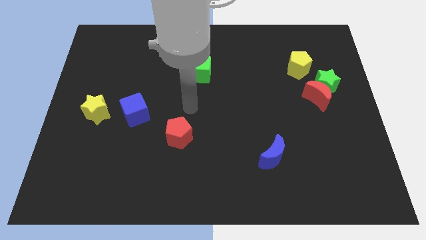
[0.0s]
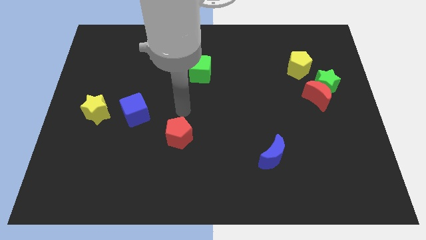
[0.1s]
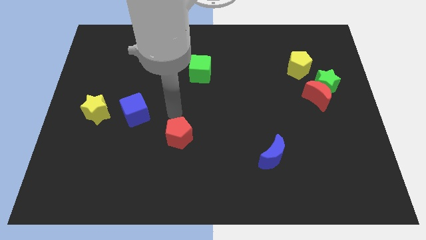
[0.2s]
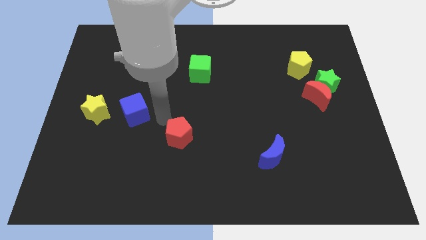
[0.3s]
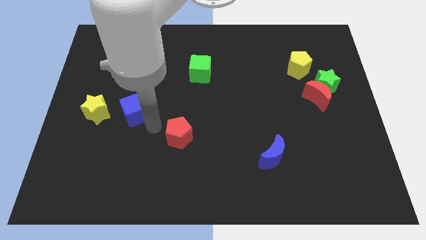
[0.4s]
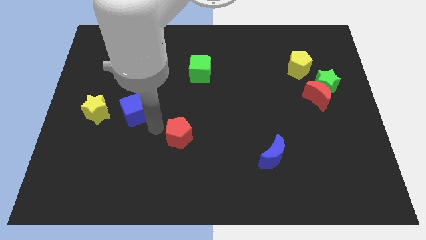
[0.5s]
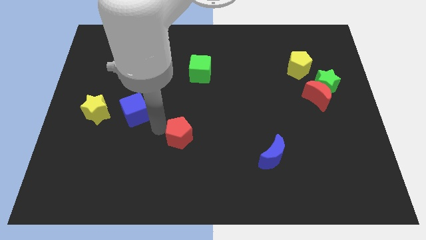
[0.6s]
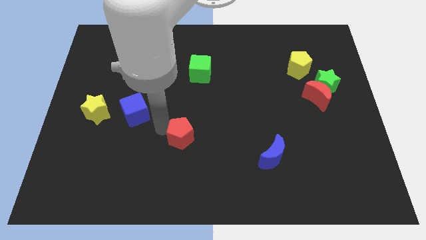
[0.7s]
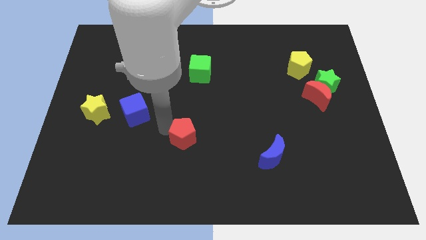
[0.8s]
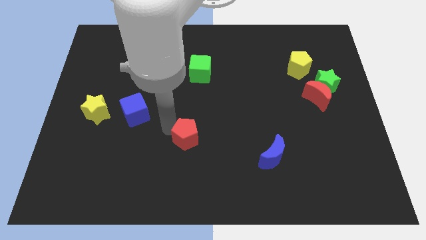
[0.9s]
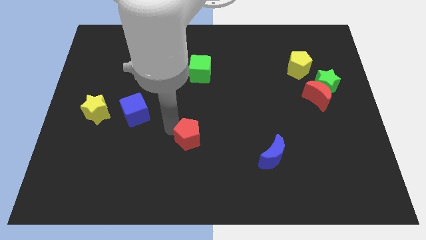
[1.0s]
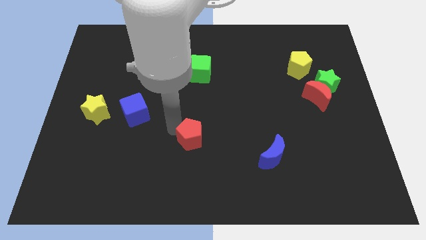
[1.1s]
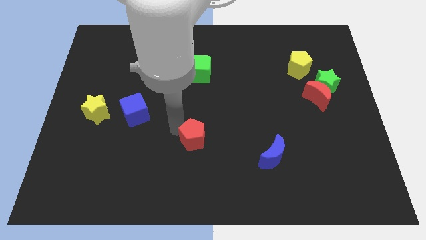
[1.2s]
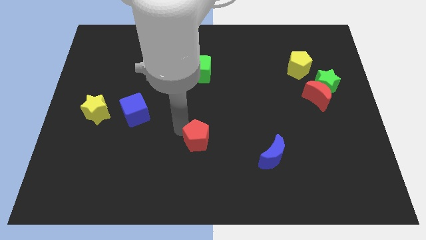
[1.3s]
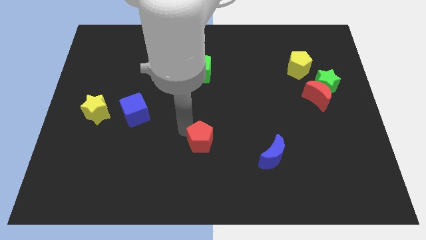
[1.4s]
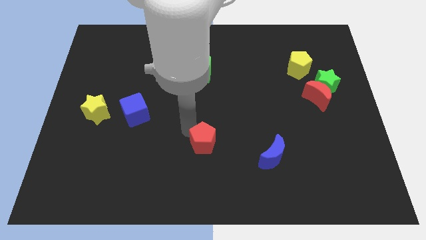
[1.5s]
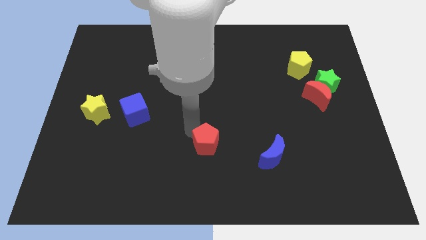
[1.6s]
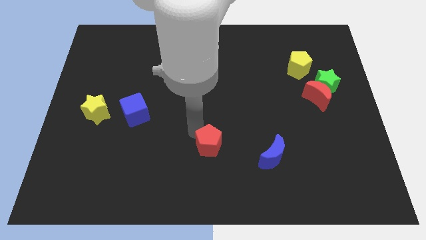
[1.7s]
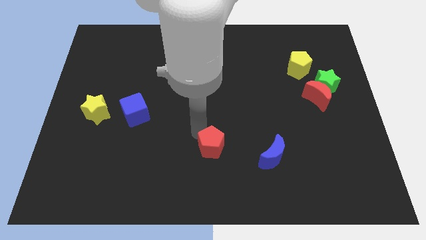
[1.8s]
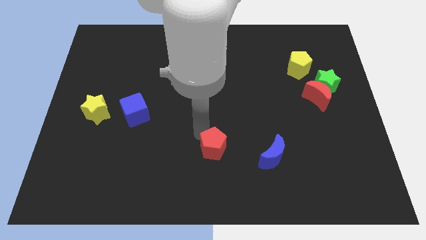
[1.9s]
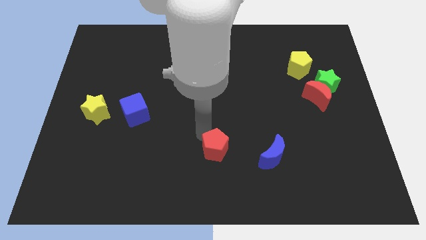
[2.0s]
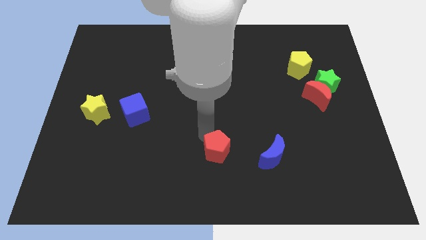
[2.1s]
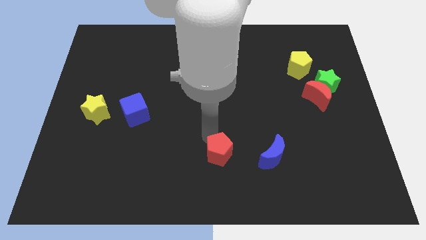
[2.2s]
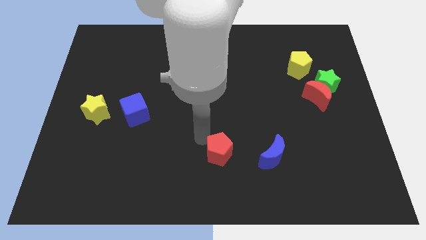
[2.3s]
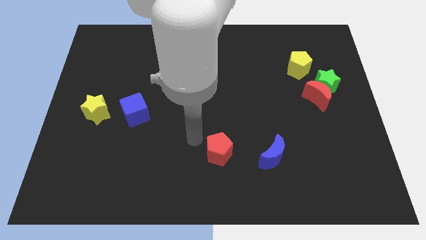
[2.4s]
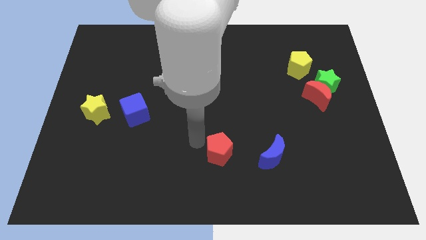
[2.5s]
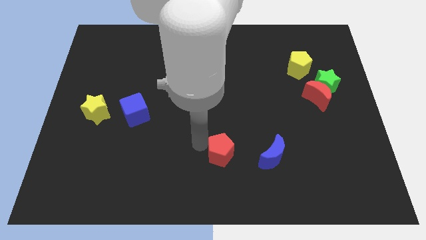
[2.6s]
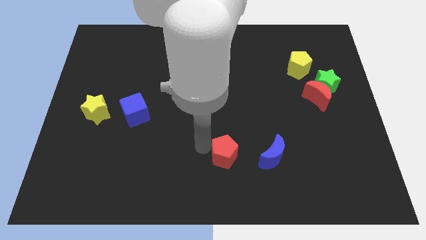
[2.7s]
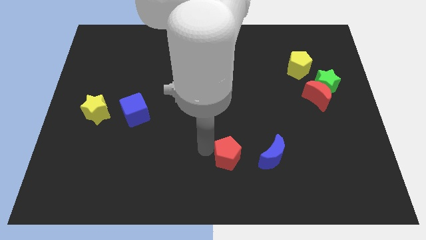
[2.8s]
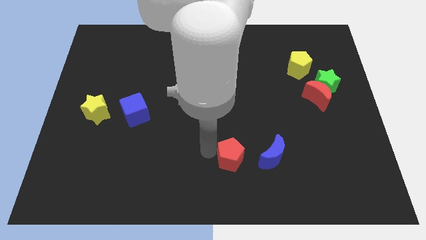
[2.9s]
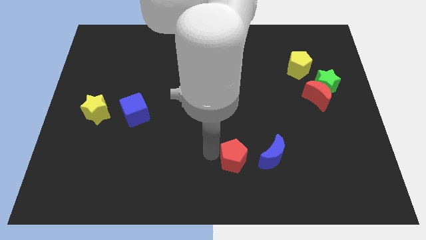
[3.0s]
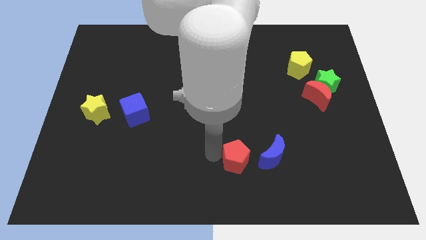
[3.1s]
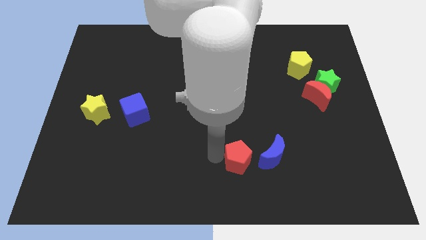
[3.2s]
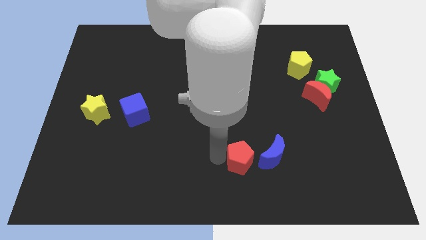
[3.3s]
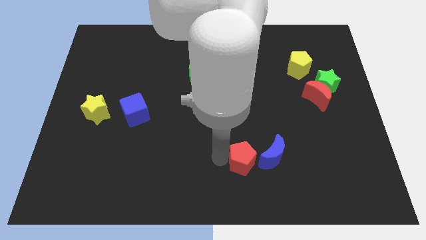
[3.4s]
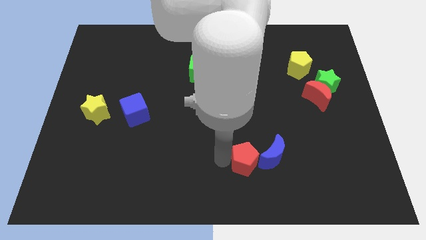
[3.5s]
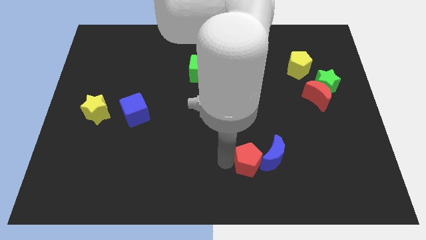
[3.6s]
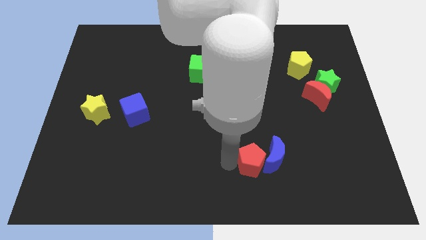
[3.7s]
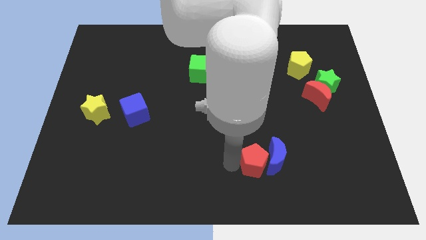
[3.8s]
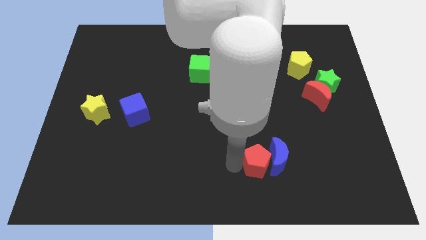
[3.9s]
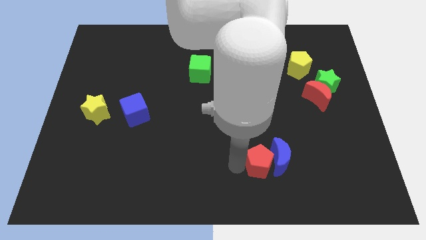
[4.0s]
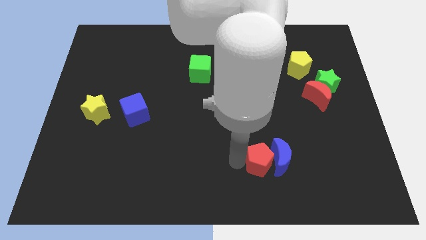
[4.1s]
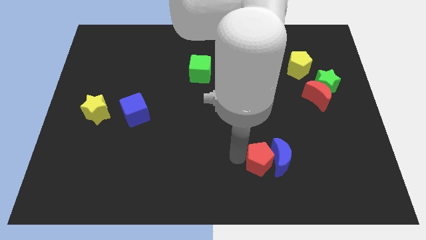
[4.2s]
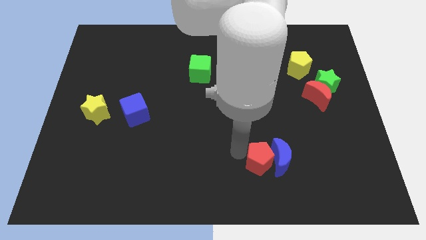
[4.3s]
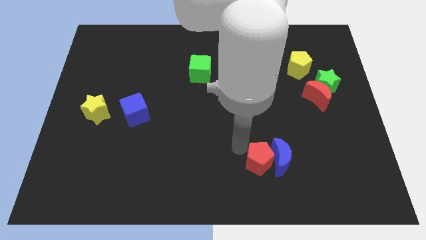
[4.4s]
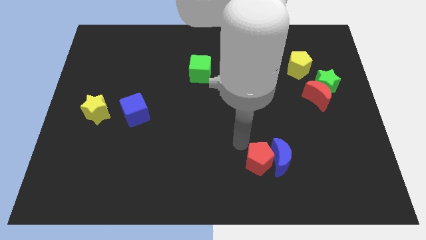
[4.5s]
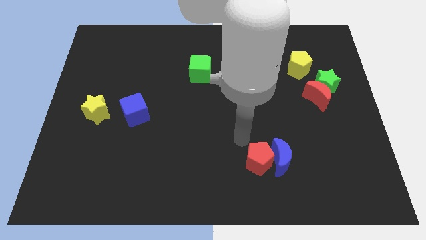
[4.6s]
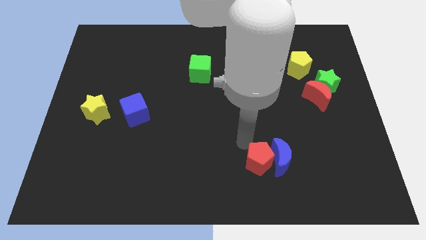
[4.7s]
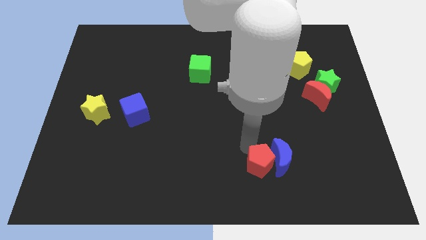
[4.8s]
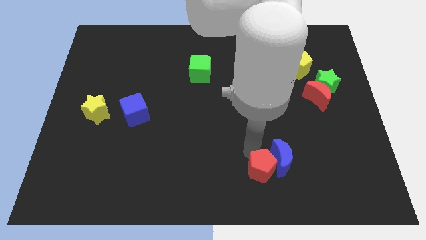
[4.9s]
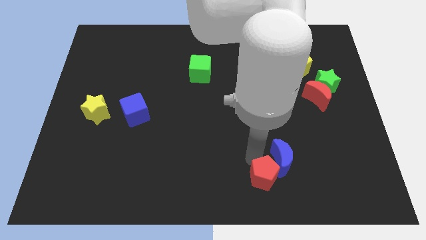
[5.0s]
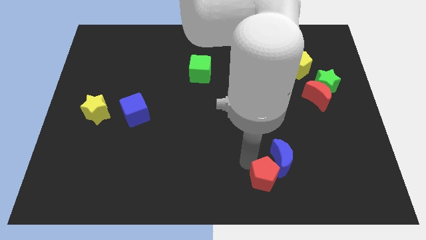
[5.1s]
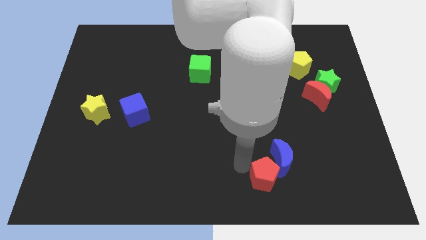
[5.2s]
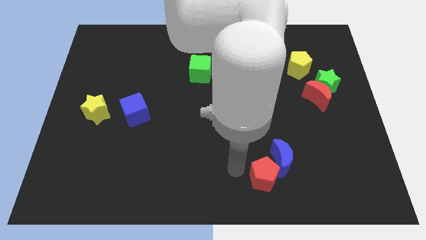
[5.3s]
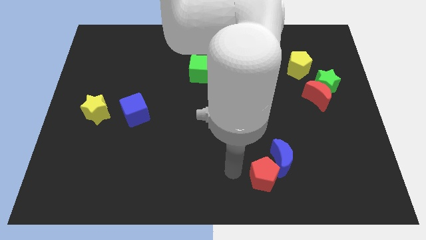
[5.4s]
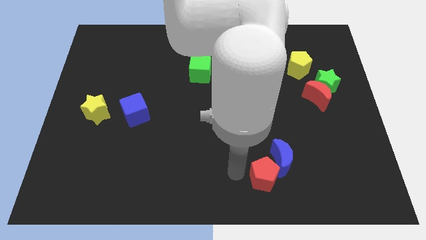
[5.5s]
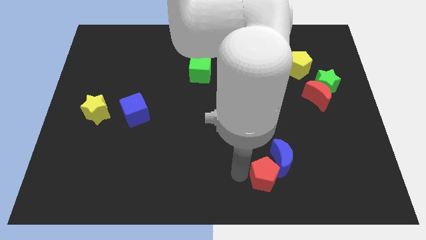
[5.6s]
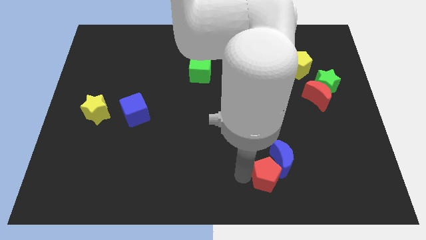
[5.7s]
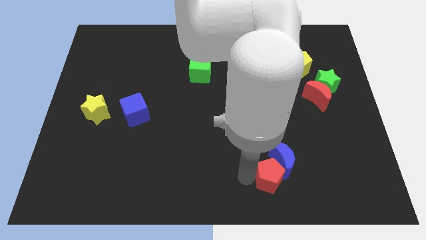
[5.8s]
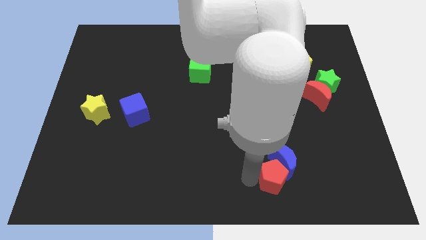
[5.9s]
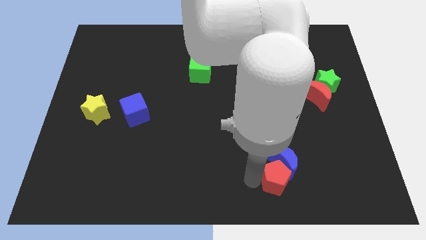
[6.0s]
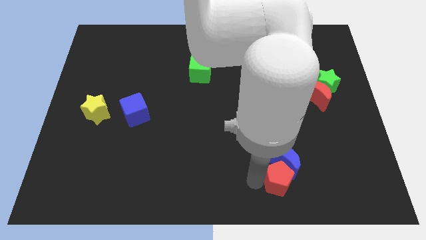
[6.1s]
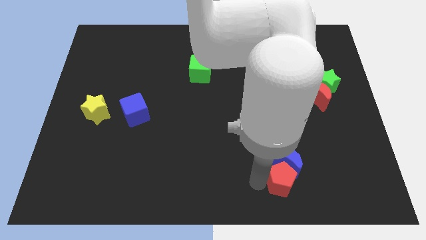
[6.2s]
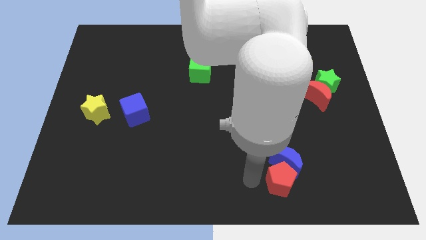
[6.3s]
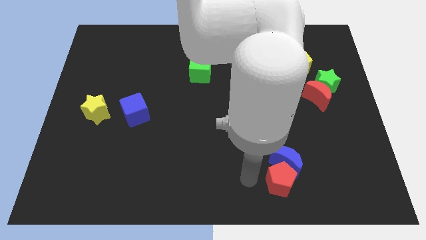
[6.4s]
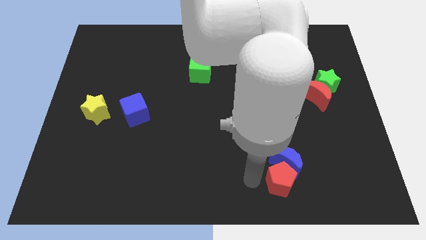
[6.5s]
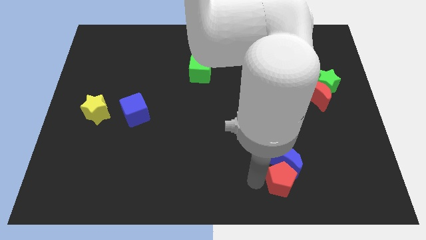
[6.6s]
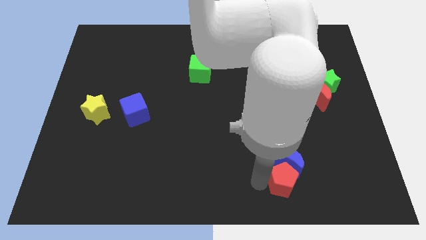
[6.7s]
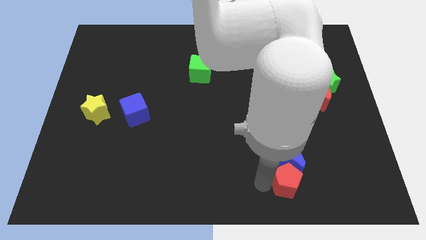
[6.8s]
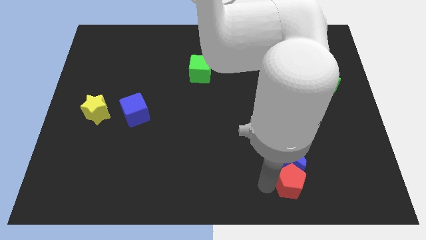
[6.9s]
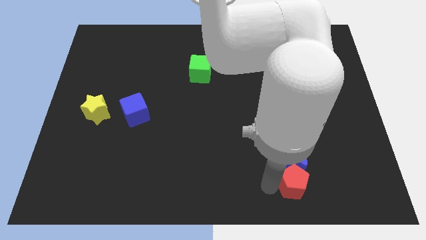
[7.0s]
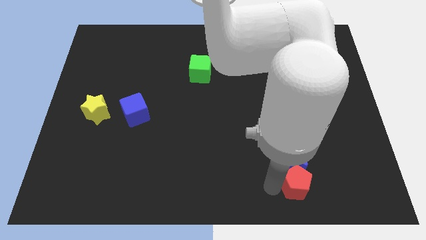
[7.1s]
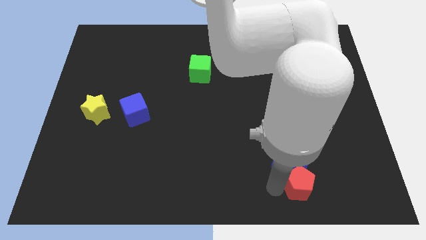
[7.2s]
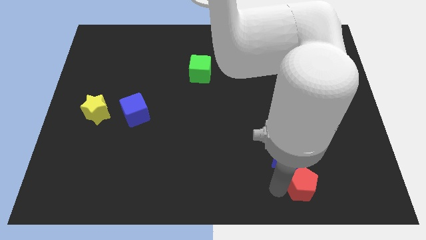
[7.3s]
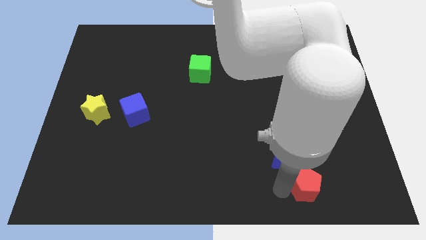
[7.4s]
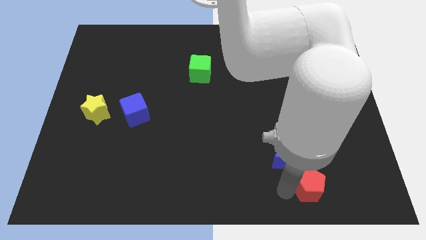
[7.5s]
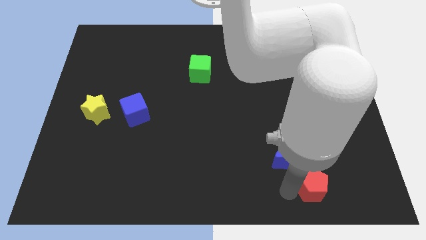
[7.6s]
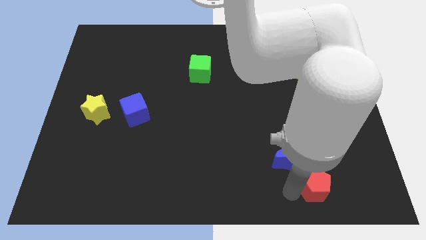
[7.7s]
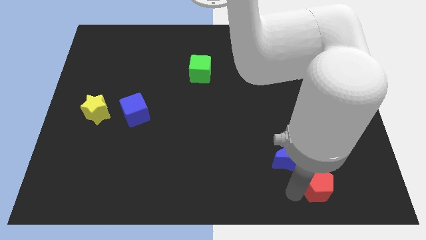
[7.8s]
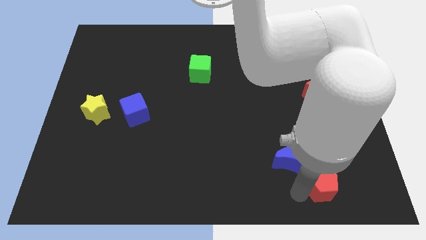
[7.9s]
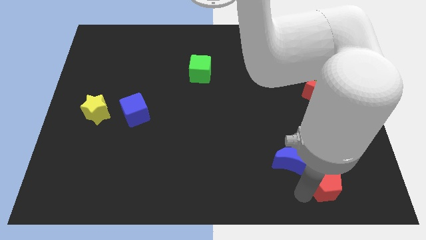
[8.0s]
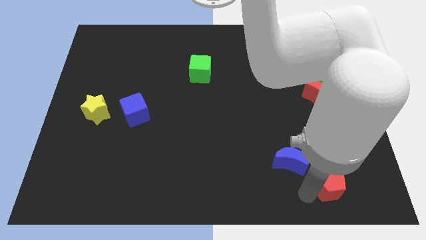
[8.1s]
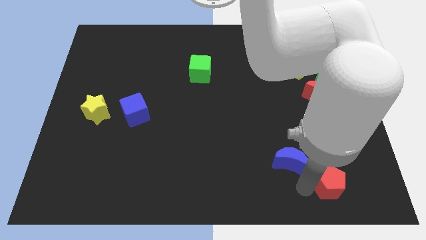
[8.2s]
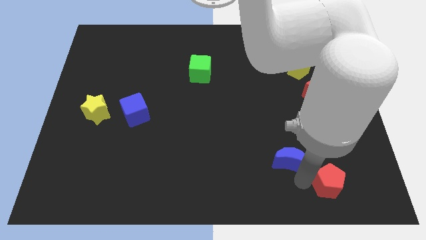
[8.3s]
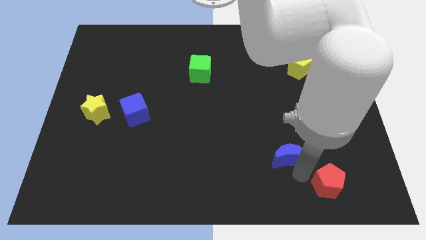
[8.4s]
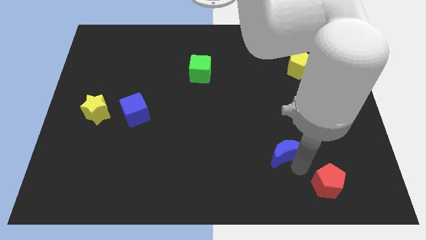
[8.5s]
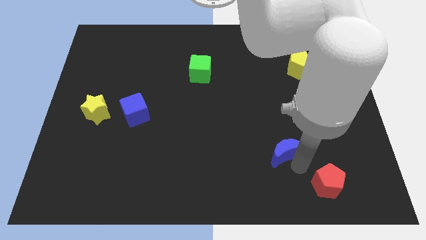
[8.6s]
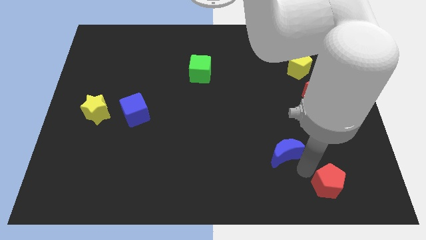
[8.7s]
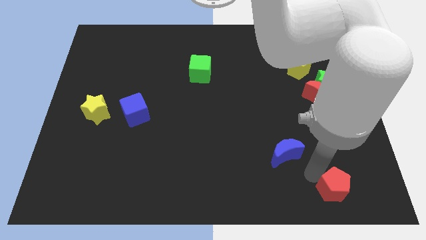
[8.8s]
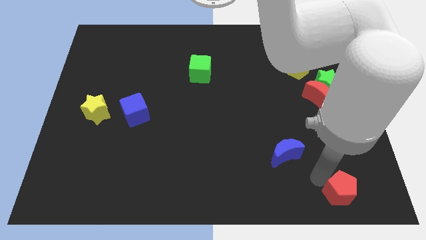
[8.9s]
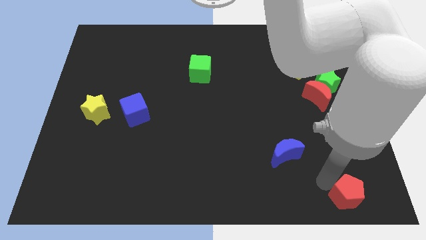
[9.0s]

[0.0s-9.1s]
put the red pentagon to the bottom right corner
